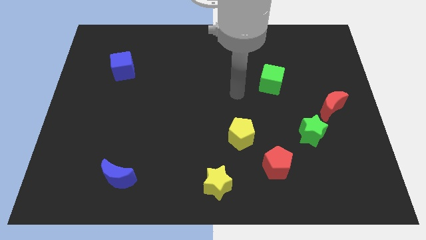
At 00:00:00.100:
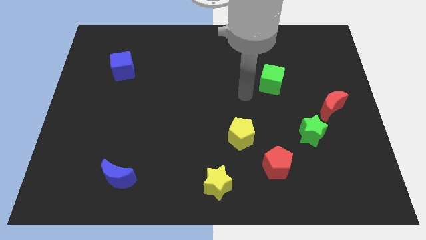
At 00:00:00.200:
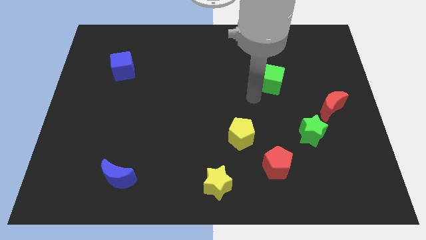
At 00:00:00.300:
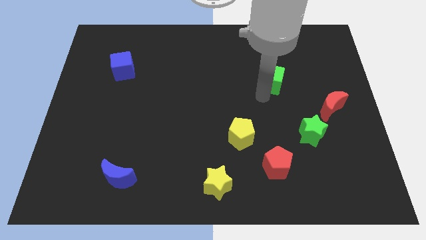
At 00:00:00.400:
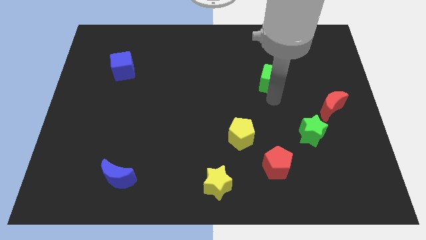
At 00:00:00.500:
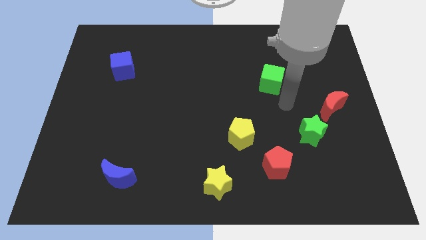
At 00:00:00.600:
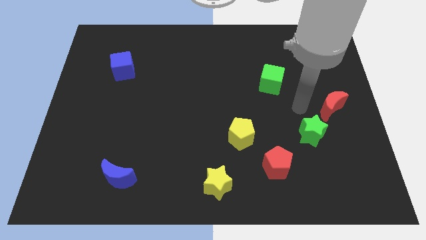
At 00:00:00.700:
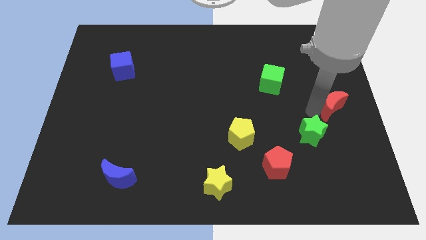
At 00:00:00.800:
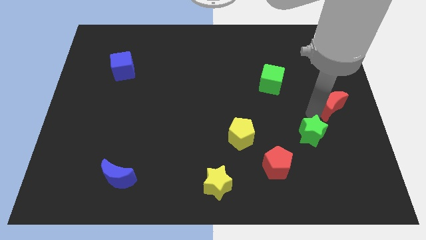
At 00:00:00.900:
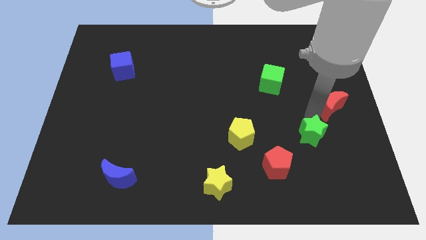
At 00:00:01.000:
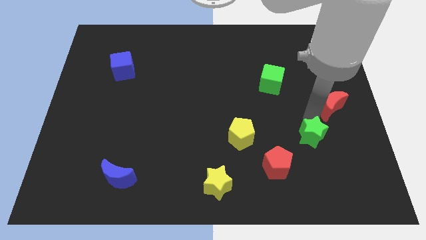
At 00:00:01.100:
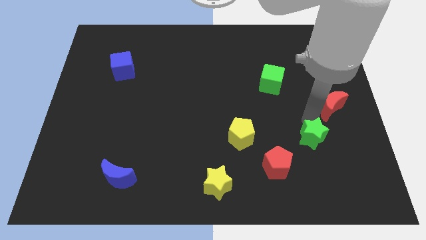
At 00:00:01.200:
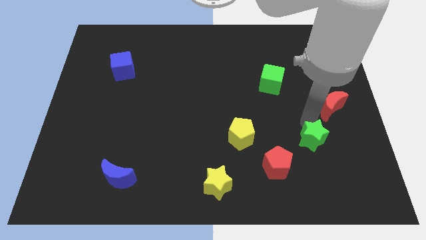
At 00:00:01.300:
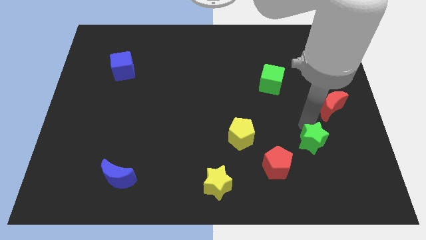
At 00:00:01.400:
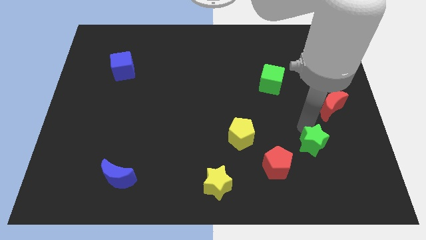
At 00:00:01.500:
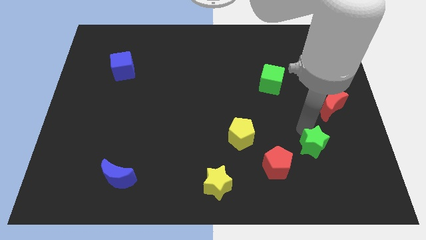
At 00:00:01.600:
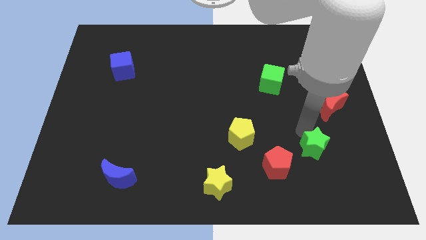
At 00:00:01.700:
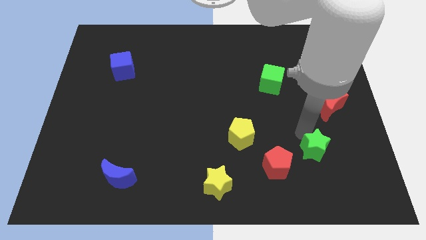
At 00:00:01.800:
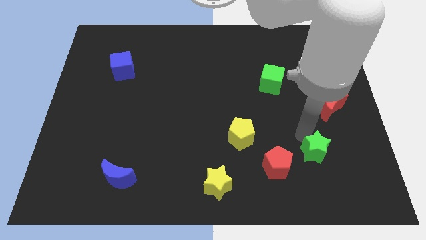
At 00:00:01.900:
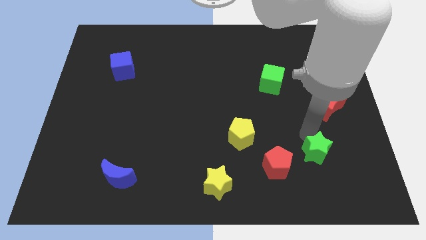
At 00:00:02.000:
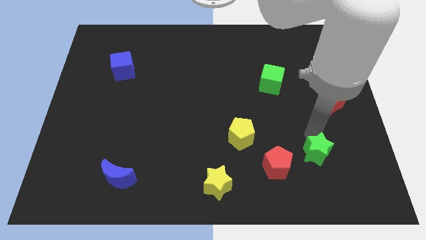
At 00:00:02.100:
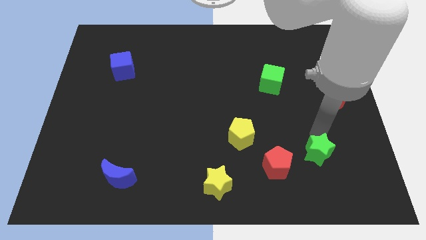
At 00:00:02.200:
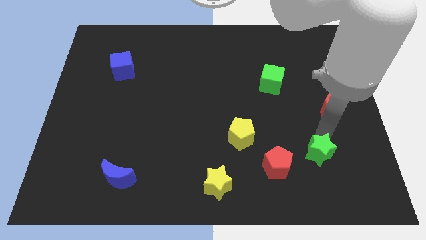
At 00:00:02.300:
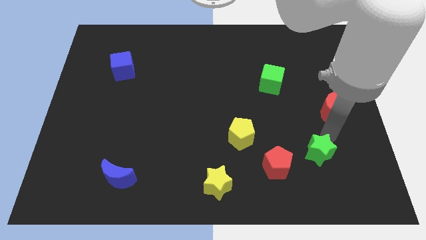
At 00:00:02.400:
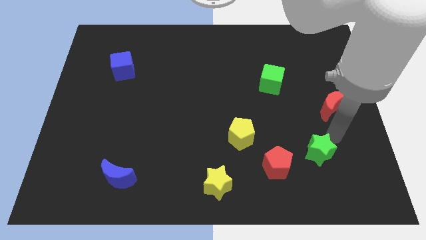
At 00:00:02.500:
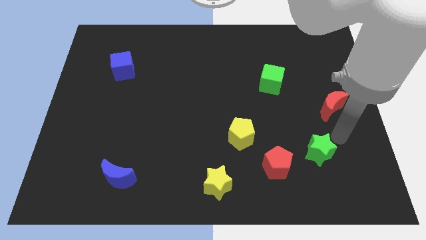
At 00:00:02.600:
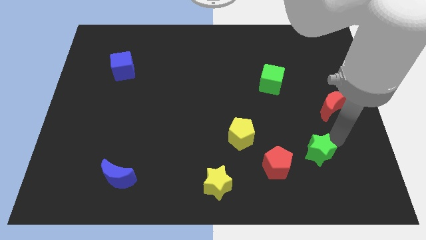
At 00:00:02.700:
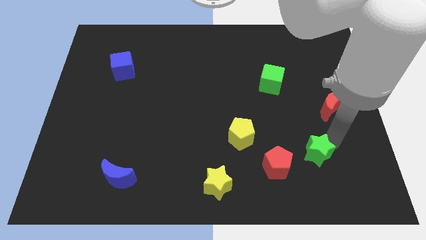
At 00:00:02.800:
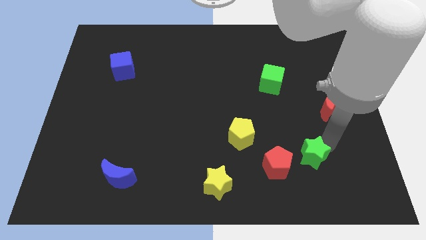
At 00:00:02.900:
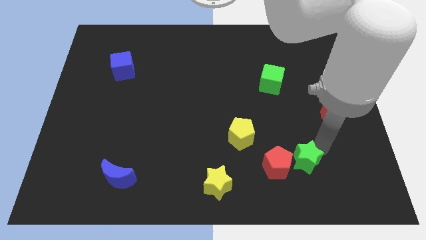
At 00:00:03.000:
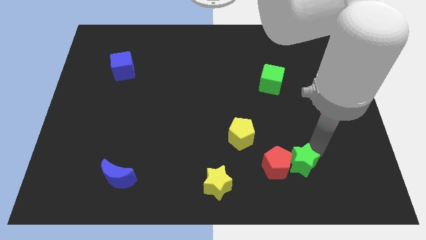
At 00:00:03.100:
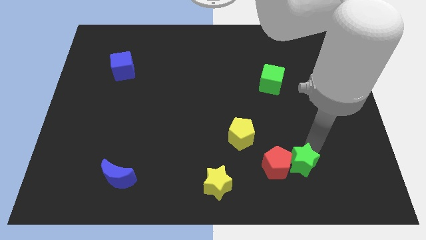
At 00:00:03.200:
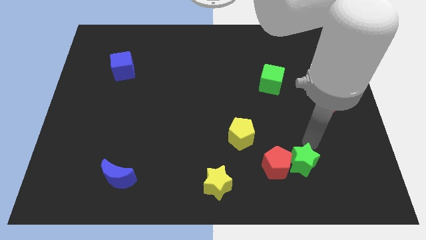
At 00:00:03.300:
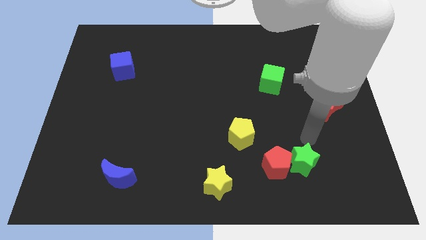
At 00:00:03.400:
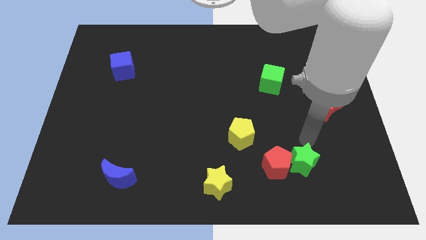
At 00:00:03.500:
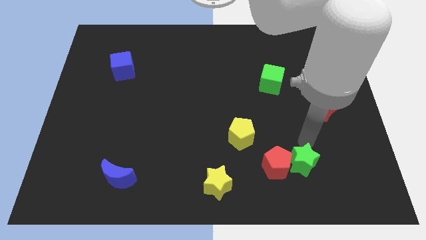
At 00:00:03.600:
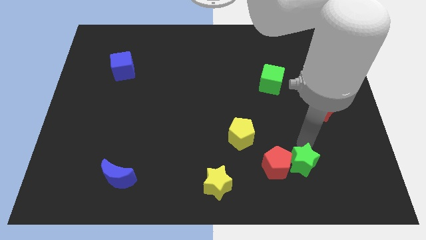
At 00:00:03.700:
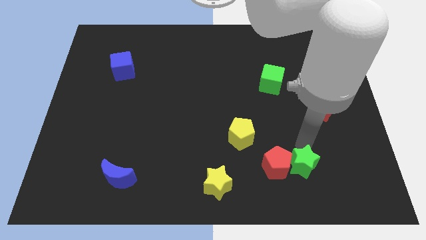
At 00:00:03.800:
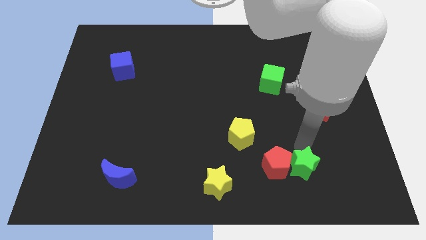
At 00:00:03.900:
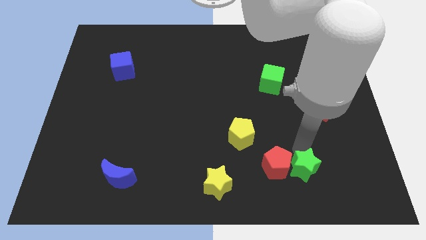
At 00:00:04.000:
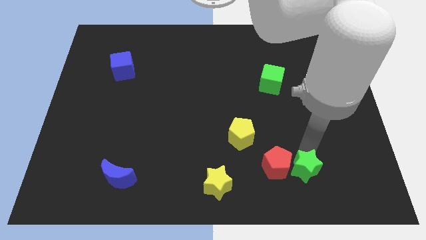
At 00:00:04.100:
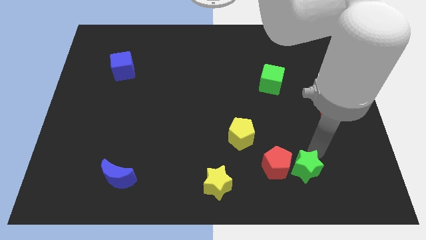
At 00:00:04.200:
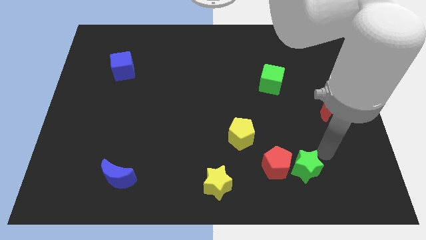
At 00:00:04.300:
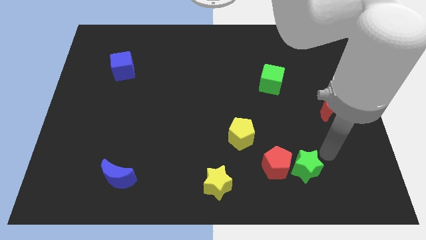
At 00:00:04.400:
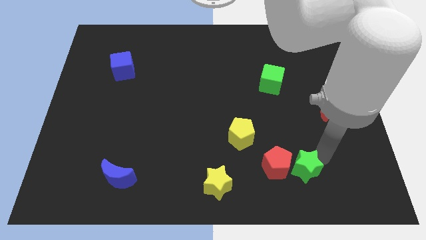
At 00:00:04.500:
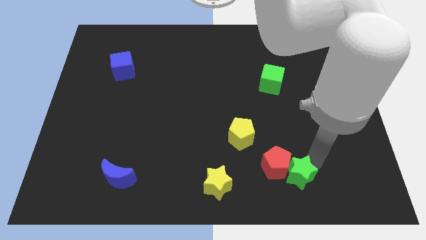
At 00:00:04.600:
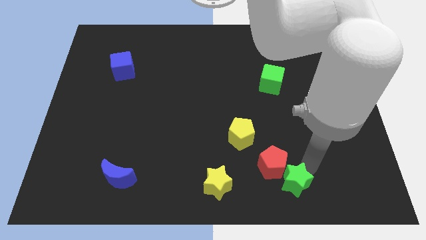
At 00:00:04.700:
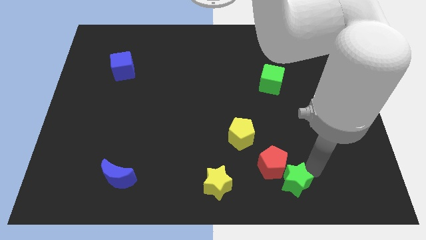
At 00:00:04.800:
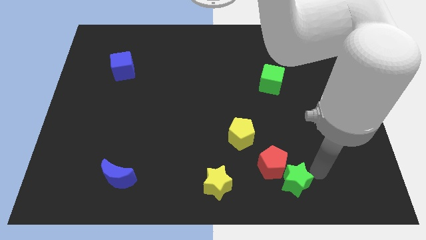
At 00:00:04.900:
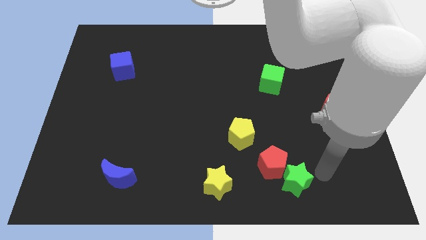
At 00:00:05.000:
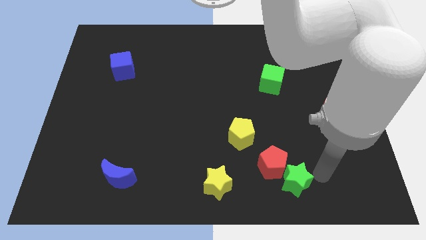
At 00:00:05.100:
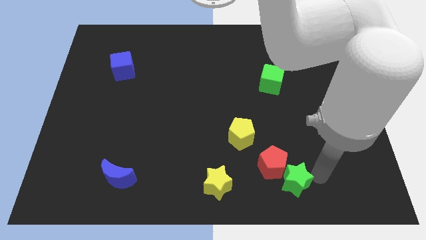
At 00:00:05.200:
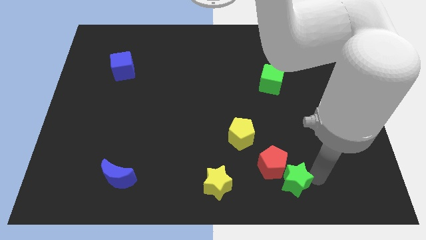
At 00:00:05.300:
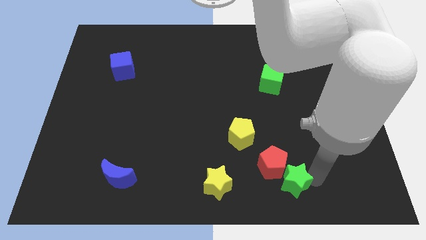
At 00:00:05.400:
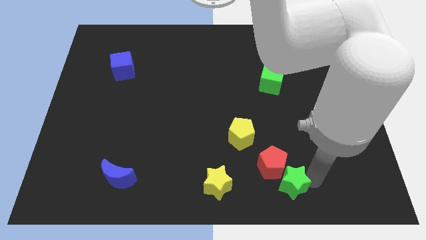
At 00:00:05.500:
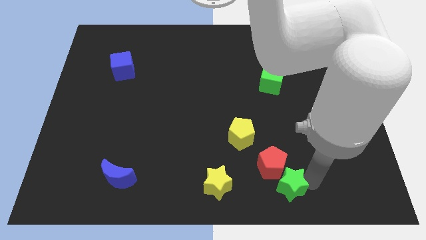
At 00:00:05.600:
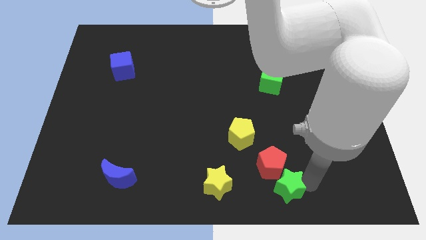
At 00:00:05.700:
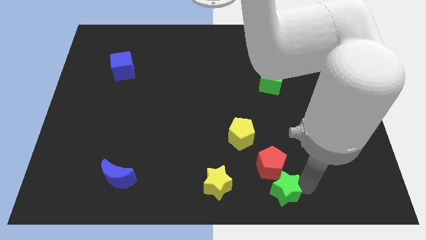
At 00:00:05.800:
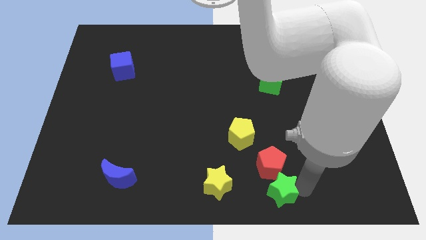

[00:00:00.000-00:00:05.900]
slide the green star to the bottom side
